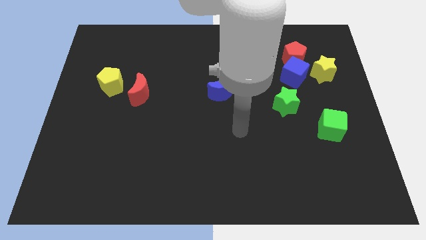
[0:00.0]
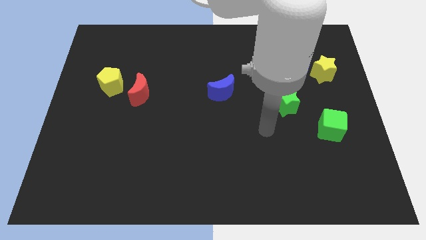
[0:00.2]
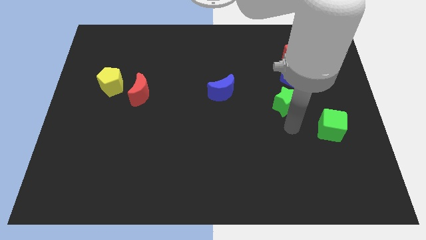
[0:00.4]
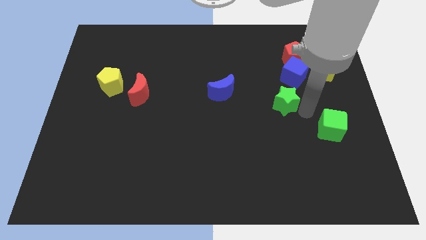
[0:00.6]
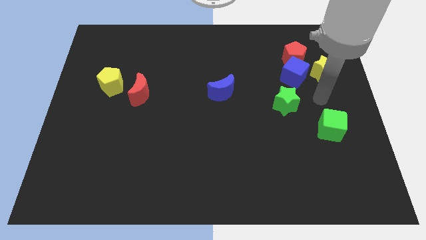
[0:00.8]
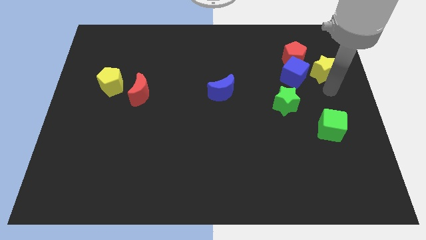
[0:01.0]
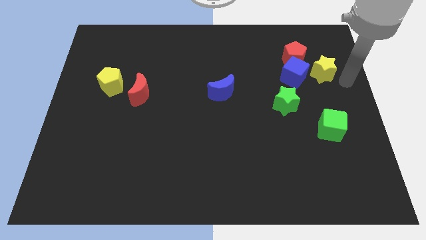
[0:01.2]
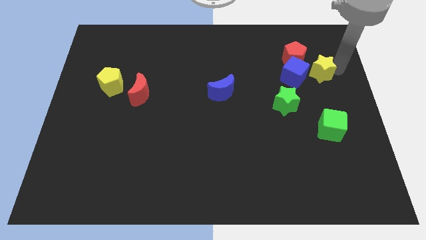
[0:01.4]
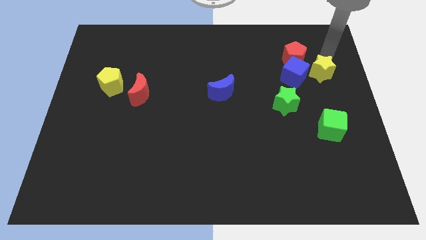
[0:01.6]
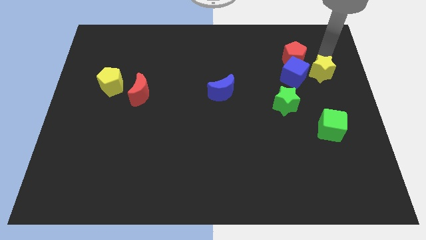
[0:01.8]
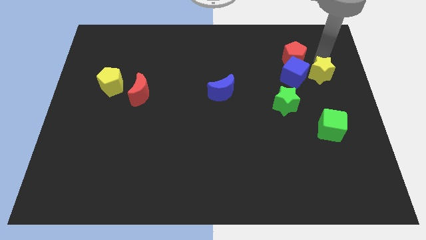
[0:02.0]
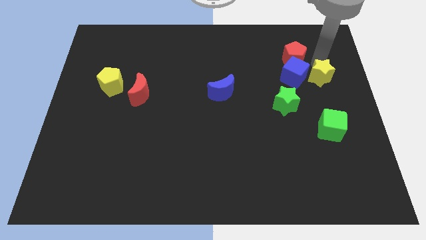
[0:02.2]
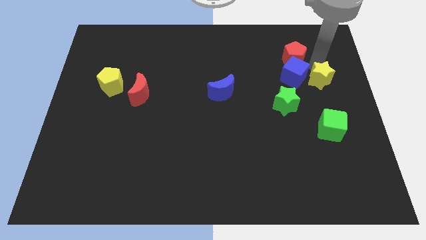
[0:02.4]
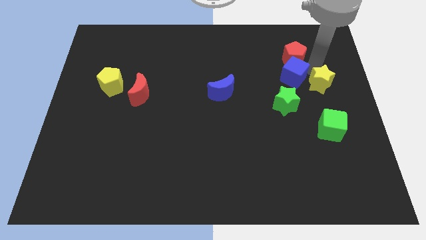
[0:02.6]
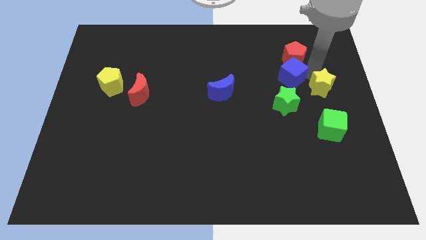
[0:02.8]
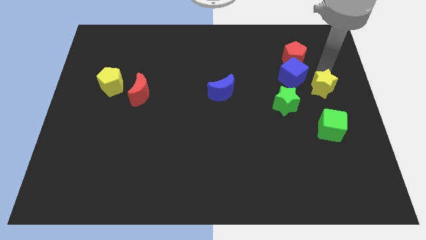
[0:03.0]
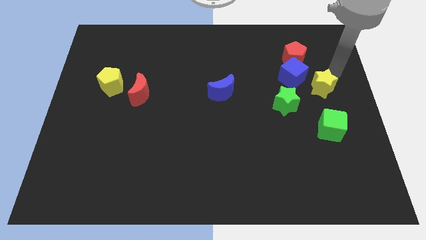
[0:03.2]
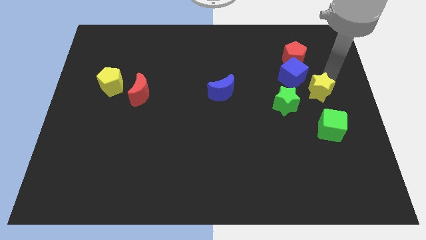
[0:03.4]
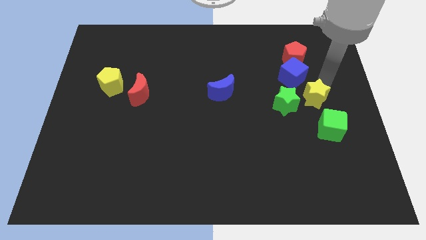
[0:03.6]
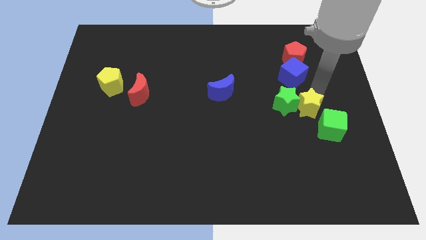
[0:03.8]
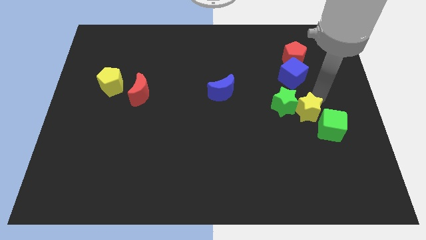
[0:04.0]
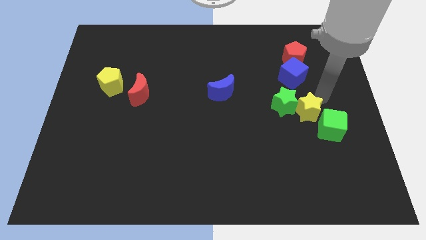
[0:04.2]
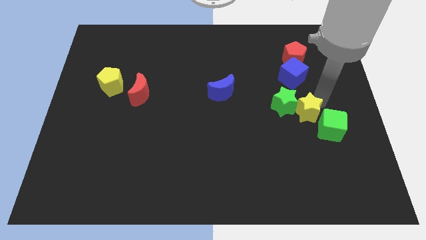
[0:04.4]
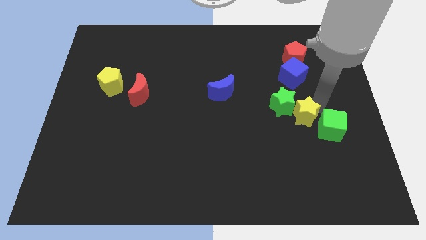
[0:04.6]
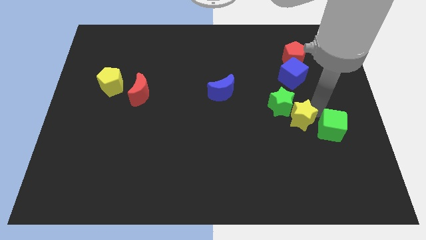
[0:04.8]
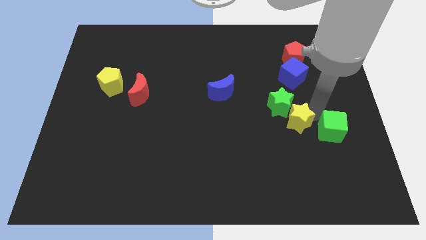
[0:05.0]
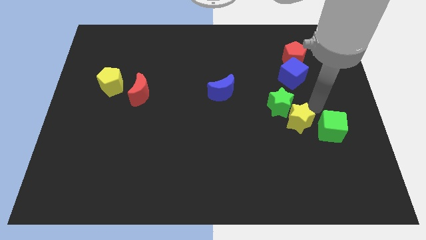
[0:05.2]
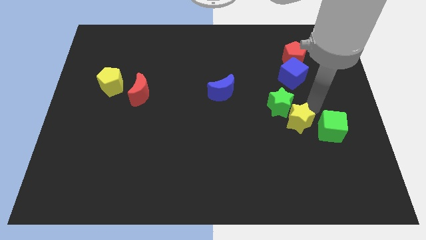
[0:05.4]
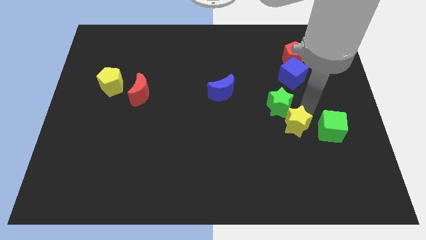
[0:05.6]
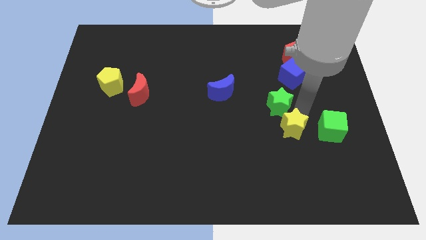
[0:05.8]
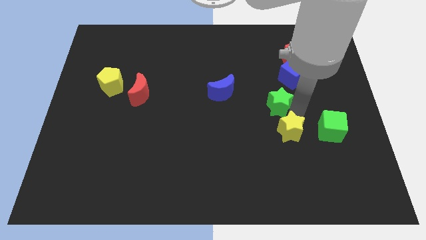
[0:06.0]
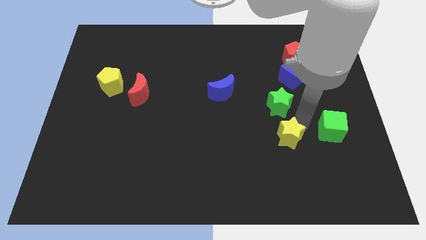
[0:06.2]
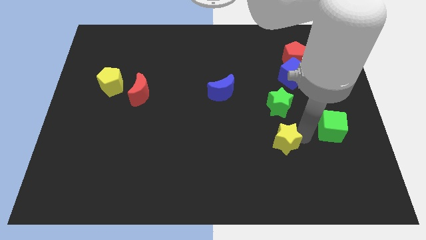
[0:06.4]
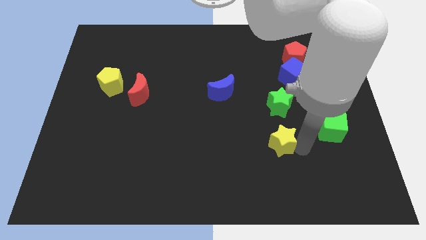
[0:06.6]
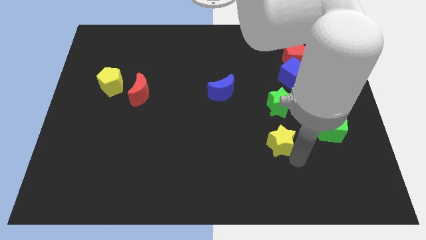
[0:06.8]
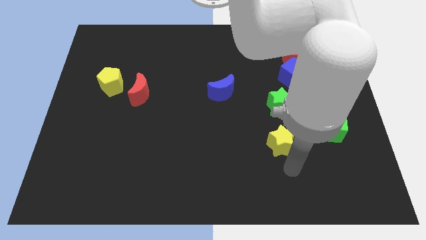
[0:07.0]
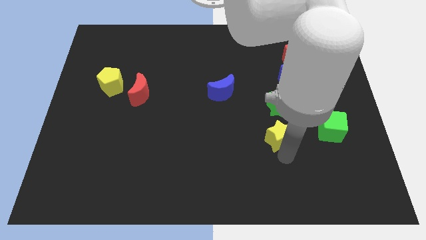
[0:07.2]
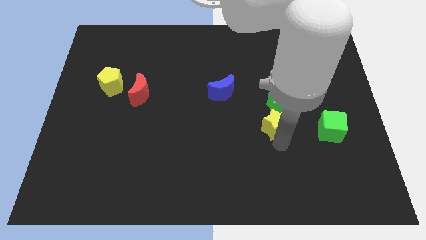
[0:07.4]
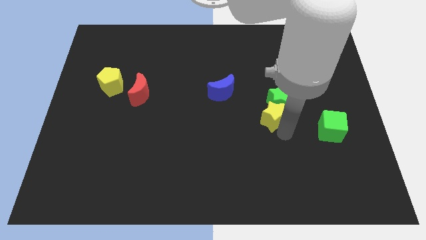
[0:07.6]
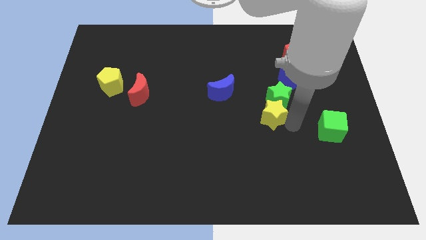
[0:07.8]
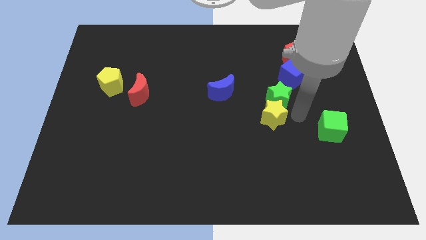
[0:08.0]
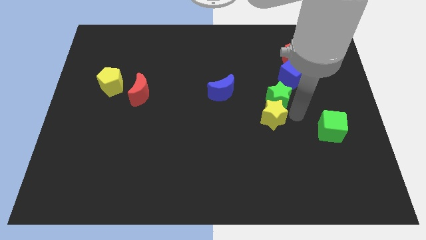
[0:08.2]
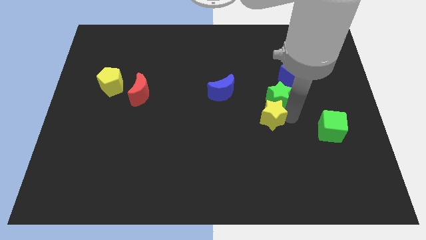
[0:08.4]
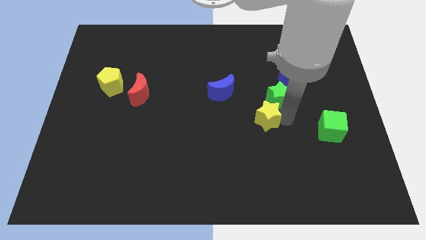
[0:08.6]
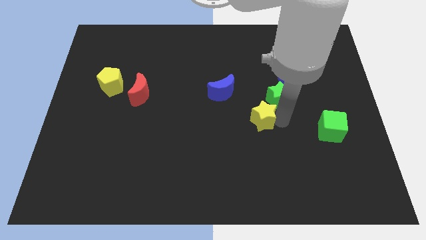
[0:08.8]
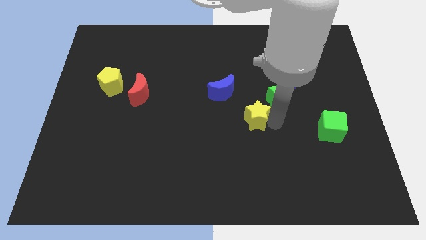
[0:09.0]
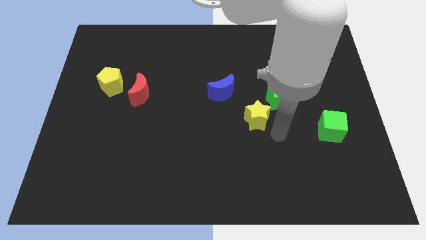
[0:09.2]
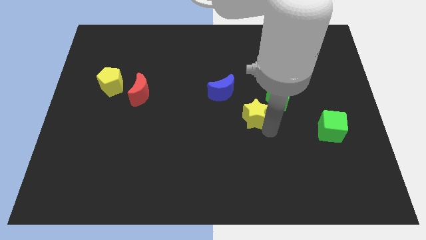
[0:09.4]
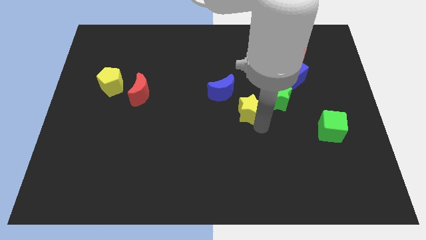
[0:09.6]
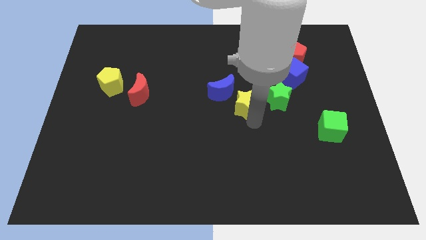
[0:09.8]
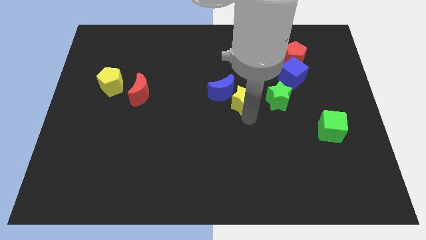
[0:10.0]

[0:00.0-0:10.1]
move the yellow star close to the blue moon

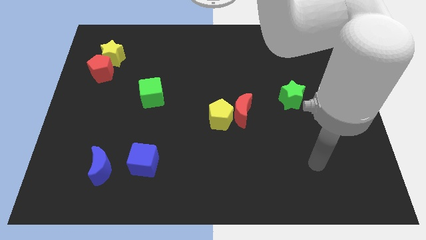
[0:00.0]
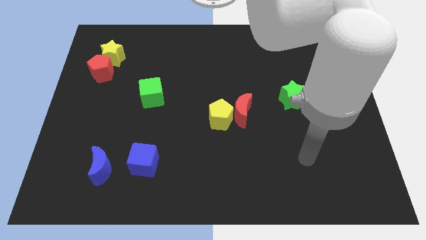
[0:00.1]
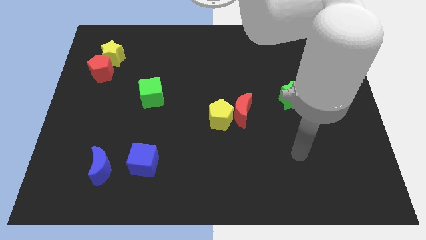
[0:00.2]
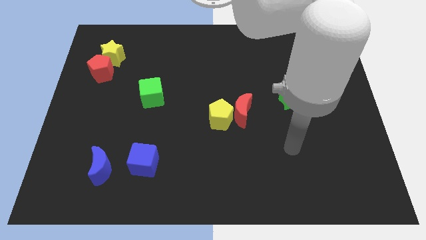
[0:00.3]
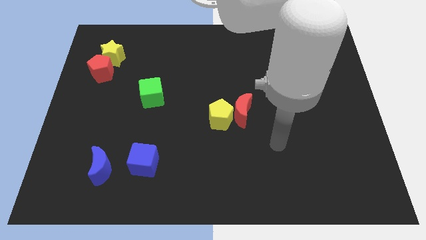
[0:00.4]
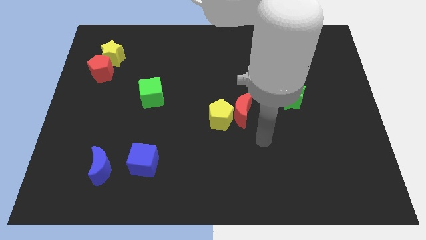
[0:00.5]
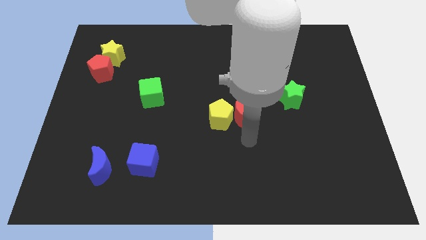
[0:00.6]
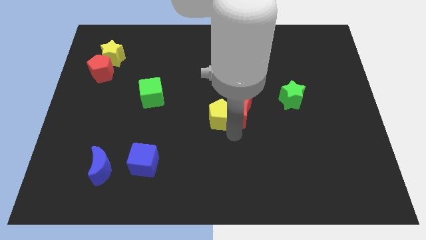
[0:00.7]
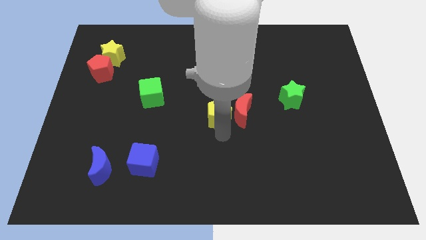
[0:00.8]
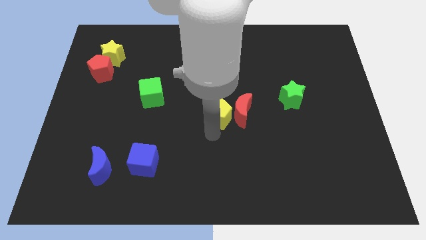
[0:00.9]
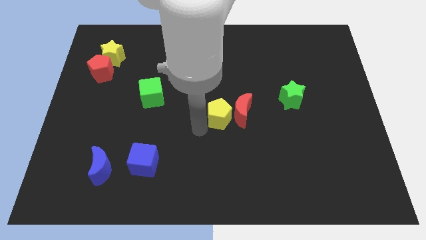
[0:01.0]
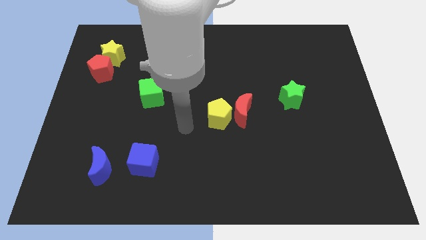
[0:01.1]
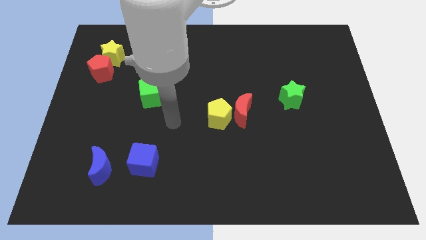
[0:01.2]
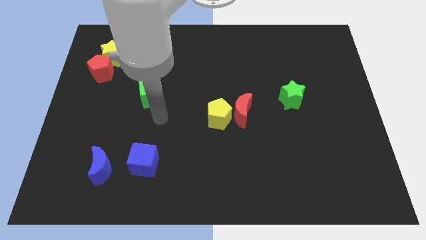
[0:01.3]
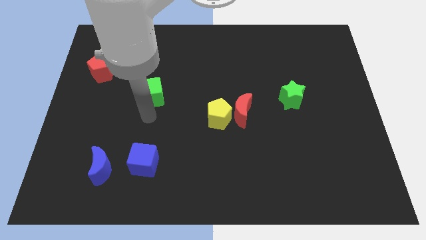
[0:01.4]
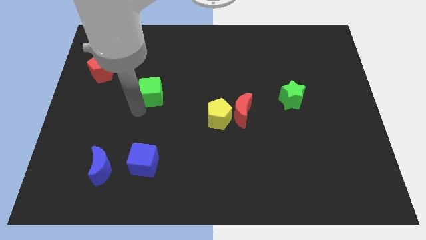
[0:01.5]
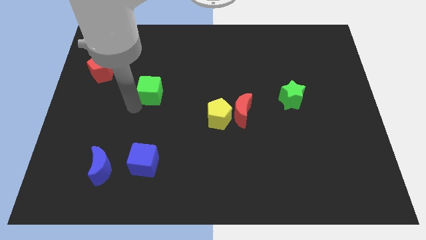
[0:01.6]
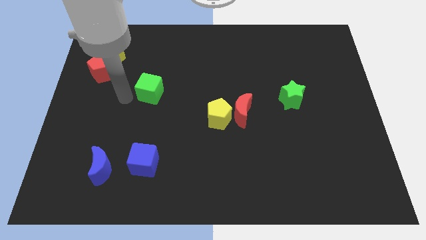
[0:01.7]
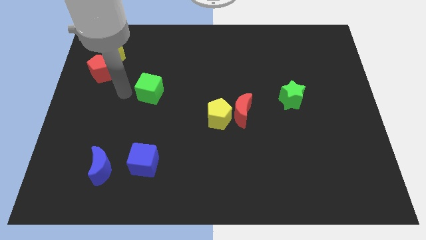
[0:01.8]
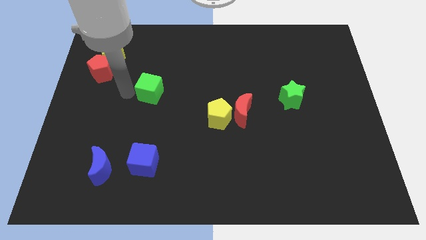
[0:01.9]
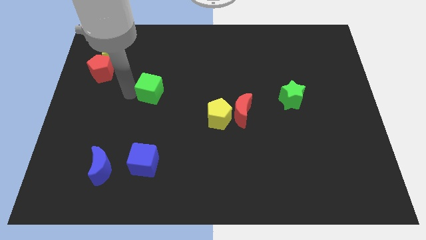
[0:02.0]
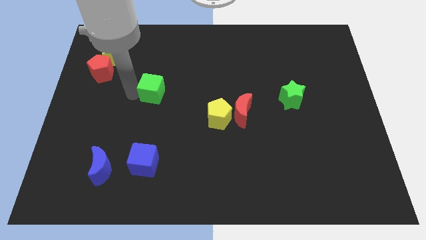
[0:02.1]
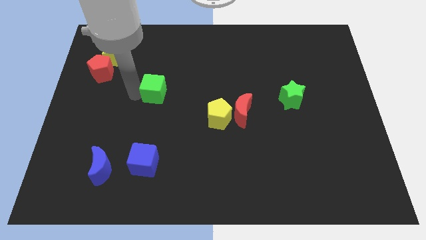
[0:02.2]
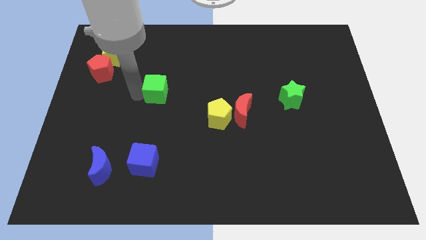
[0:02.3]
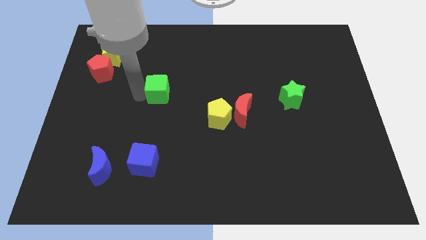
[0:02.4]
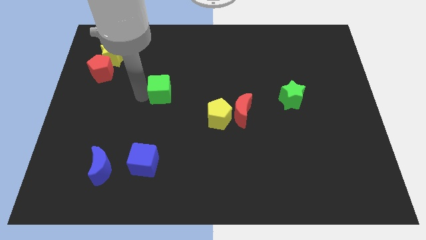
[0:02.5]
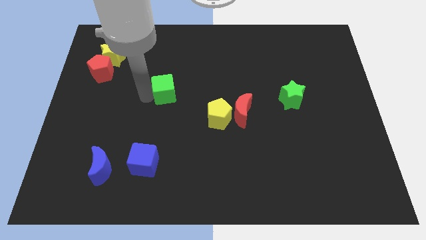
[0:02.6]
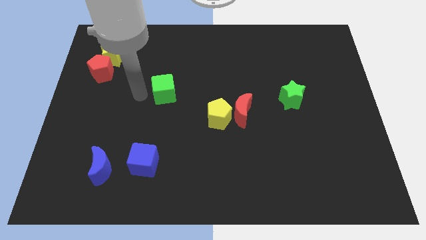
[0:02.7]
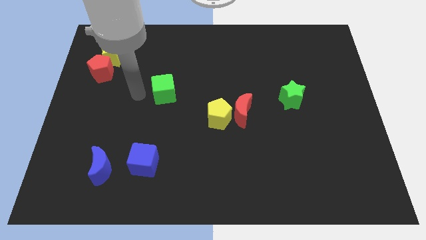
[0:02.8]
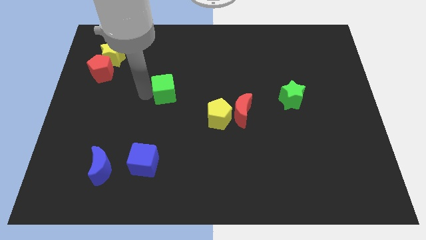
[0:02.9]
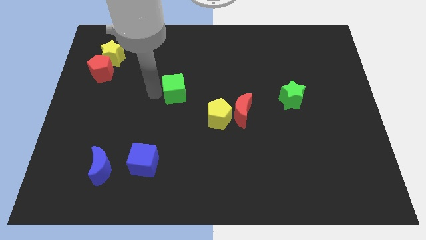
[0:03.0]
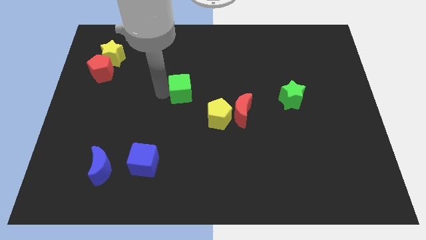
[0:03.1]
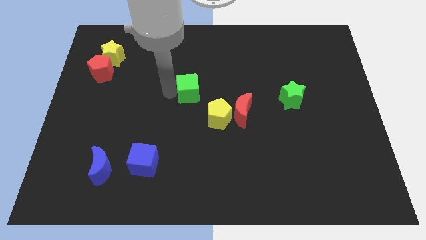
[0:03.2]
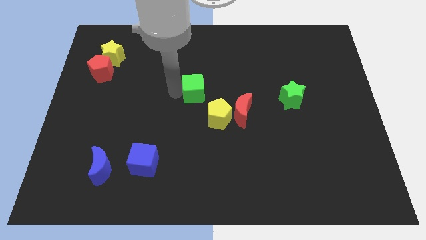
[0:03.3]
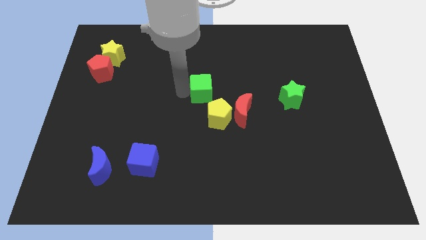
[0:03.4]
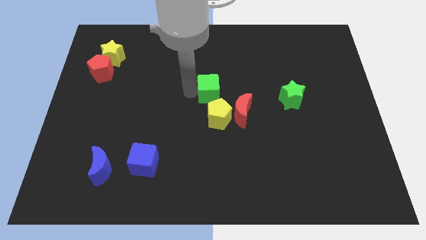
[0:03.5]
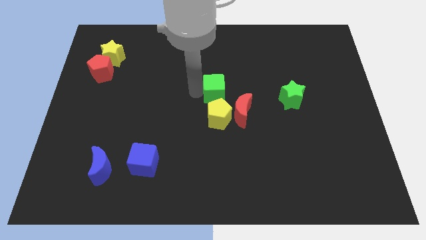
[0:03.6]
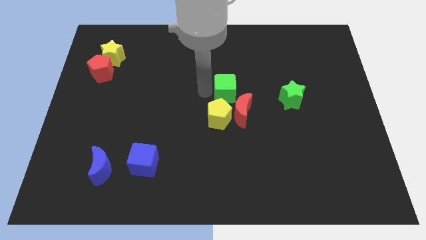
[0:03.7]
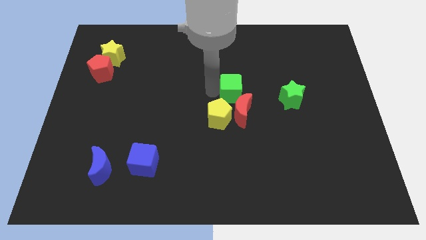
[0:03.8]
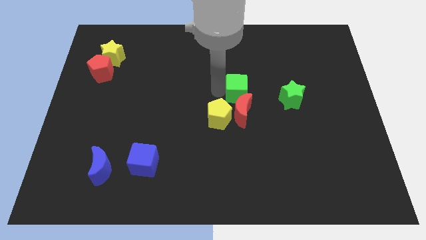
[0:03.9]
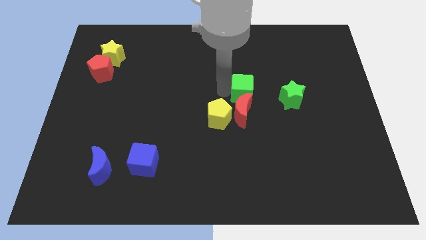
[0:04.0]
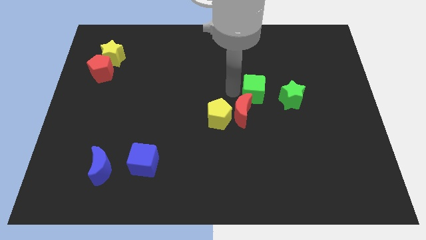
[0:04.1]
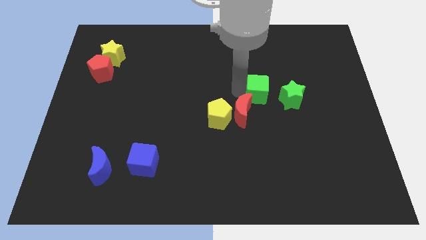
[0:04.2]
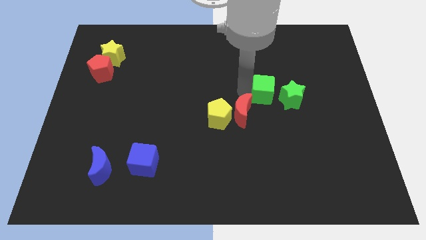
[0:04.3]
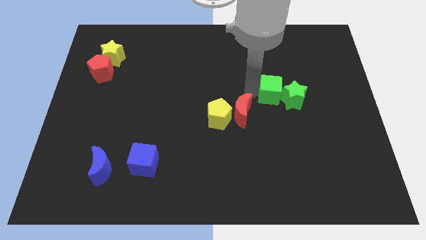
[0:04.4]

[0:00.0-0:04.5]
put the green cube to the green star
